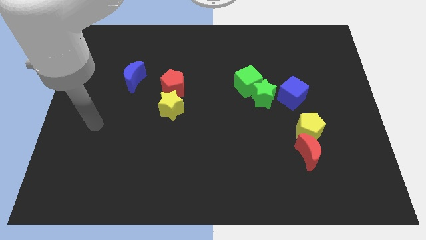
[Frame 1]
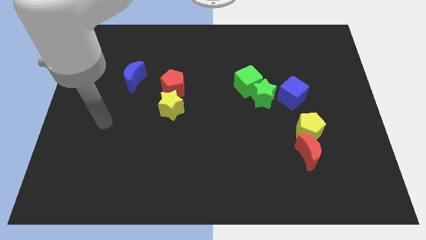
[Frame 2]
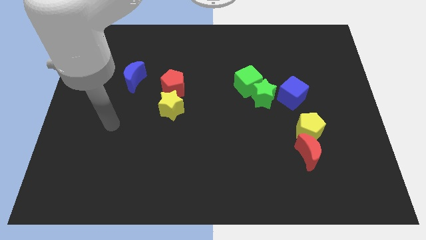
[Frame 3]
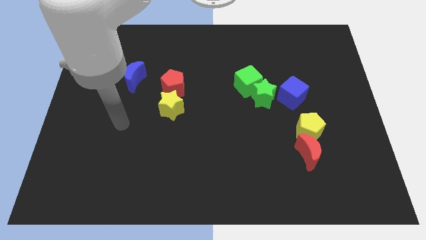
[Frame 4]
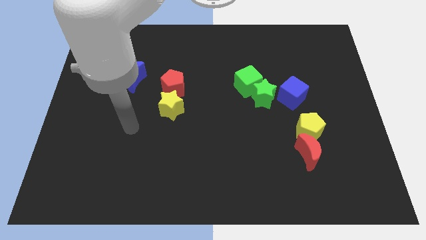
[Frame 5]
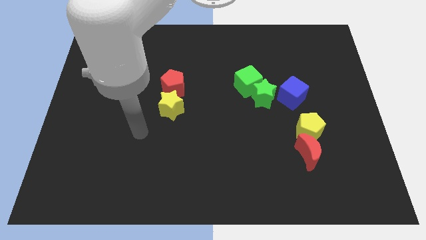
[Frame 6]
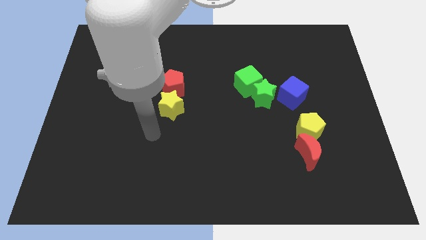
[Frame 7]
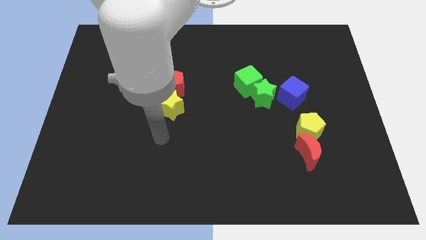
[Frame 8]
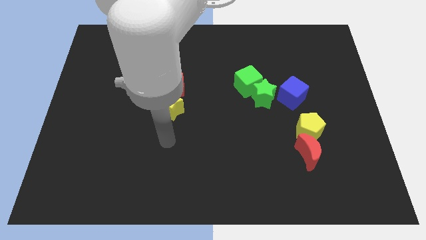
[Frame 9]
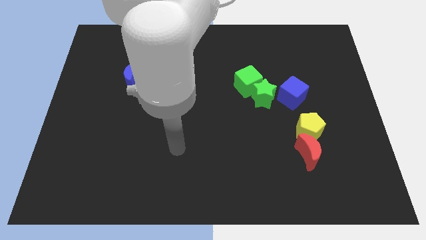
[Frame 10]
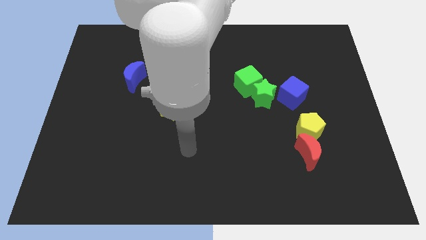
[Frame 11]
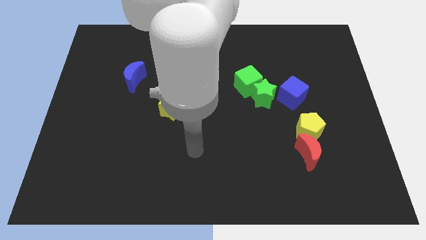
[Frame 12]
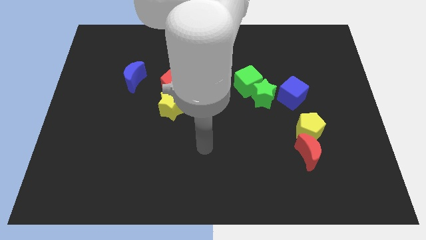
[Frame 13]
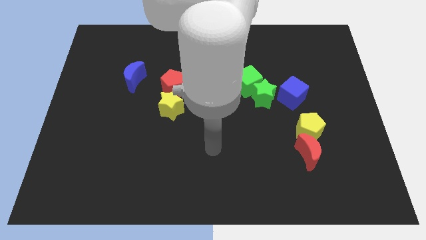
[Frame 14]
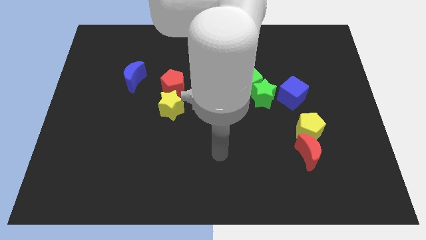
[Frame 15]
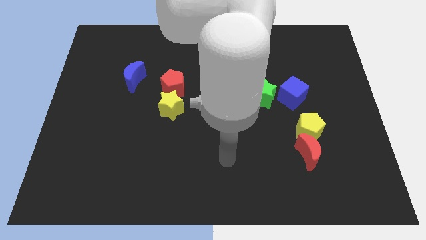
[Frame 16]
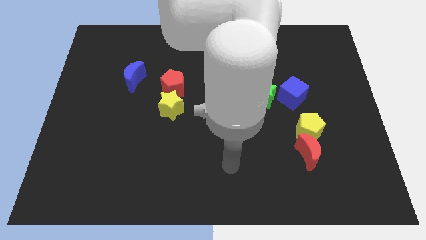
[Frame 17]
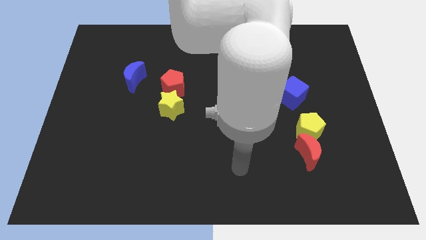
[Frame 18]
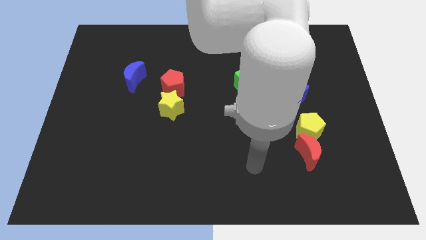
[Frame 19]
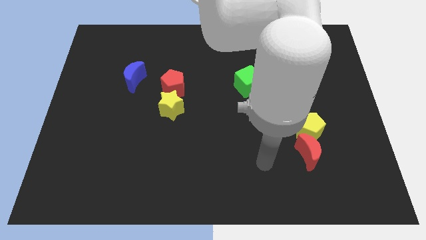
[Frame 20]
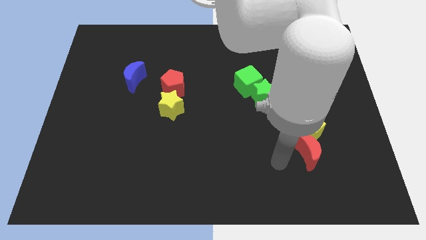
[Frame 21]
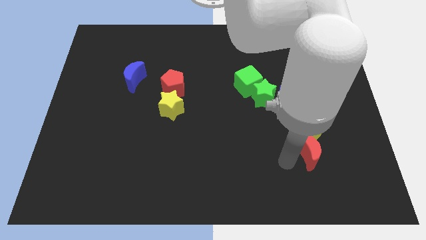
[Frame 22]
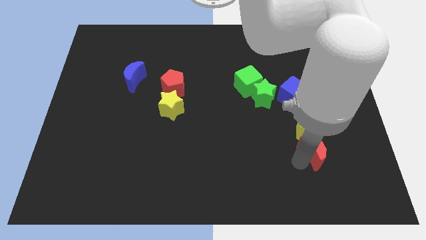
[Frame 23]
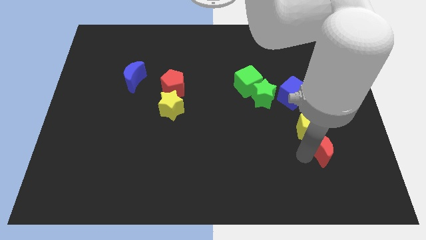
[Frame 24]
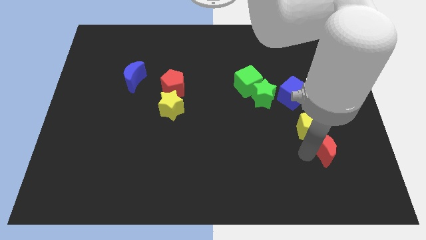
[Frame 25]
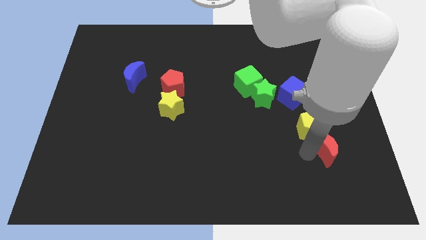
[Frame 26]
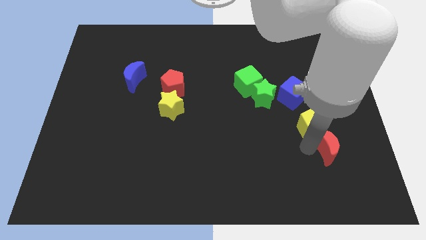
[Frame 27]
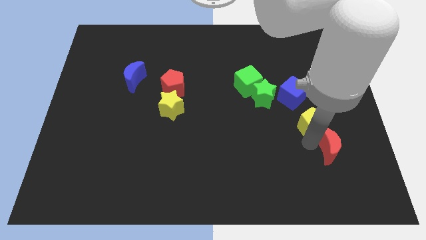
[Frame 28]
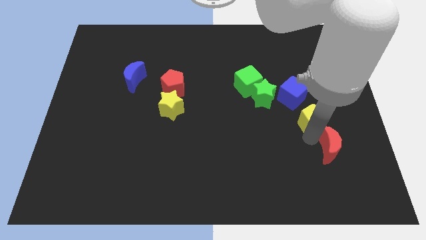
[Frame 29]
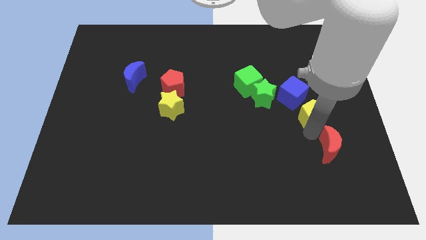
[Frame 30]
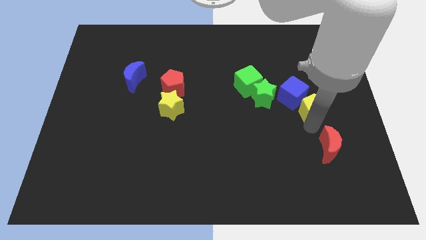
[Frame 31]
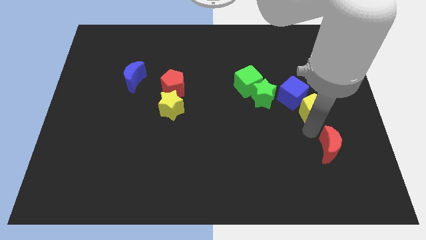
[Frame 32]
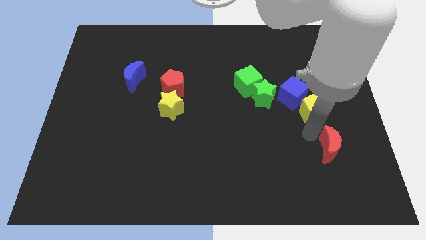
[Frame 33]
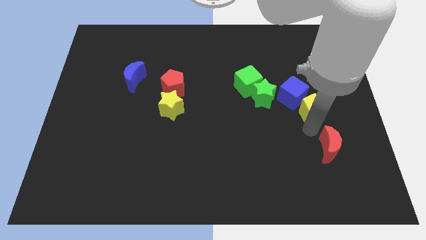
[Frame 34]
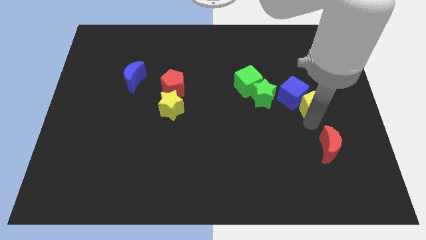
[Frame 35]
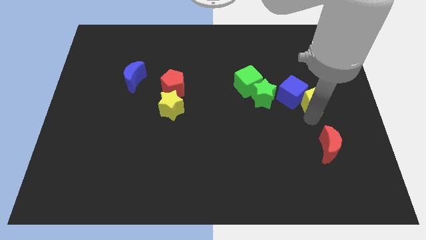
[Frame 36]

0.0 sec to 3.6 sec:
push the yellow pentagon slightly up

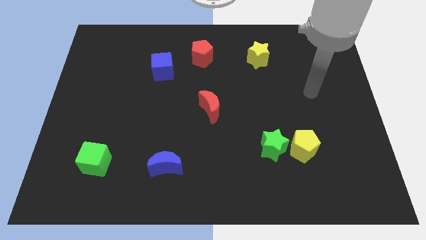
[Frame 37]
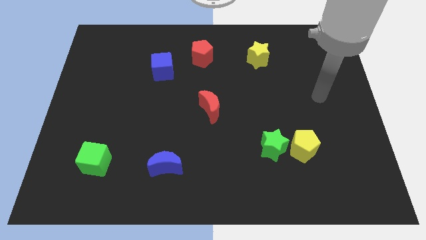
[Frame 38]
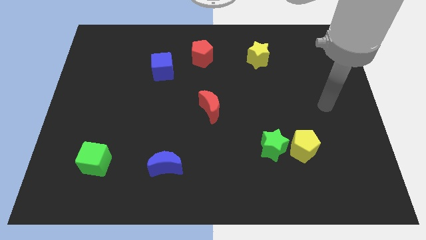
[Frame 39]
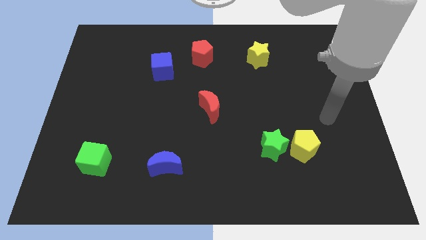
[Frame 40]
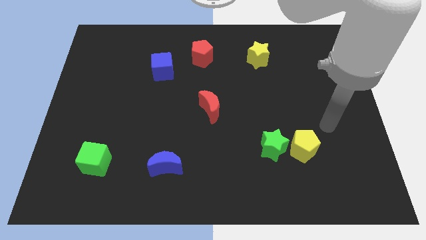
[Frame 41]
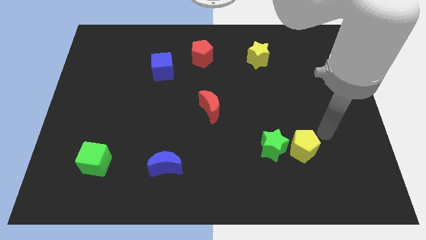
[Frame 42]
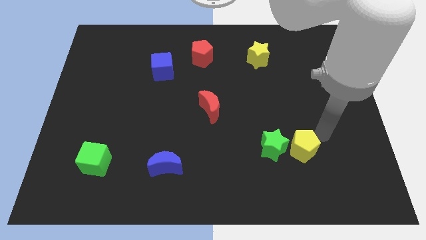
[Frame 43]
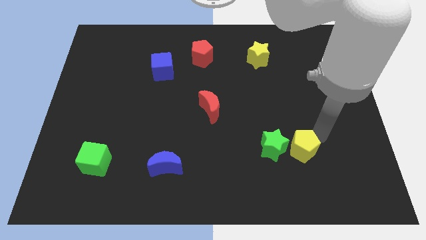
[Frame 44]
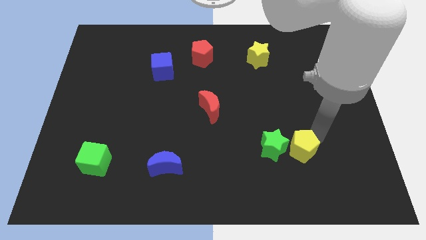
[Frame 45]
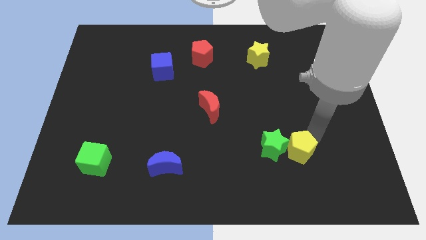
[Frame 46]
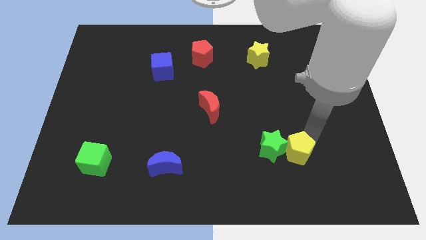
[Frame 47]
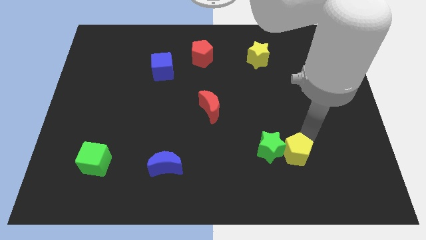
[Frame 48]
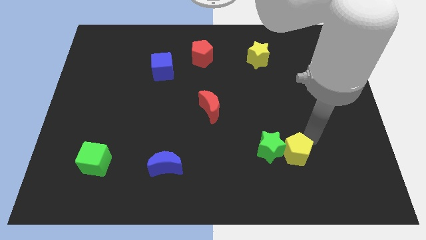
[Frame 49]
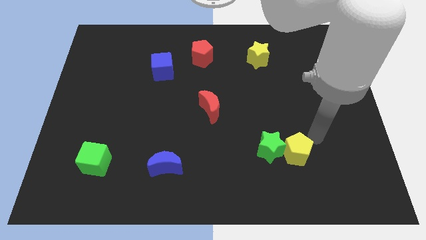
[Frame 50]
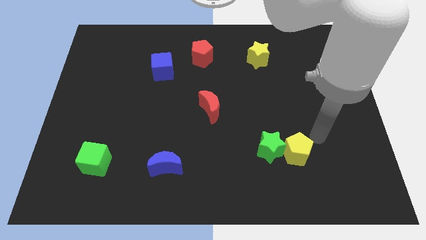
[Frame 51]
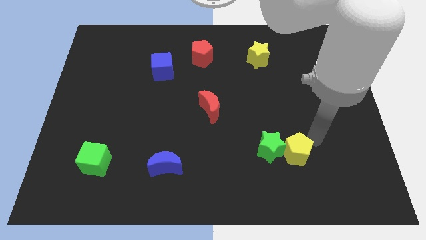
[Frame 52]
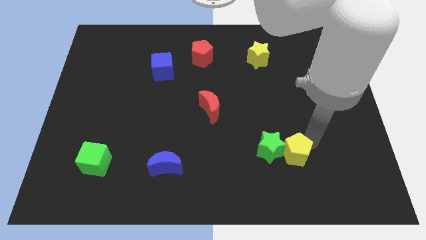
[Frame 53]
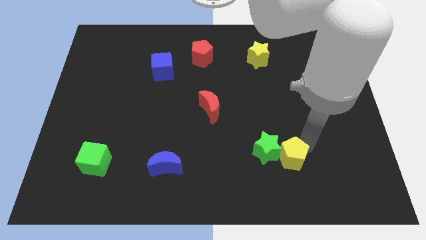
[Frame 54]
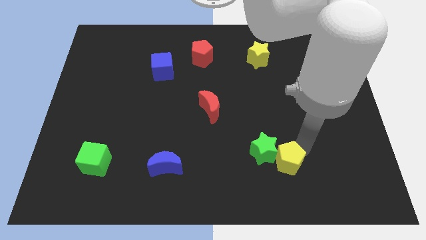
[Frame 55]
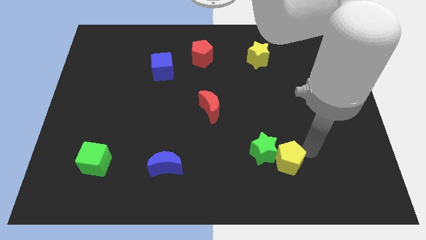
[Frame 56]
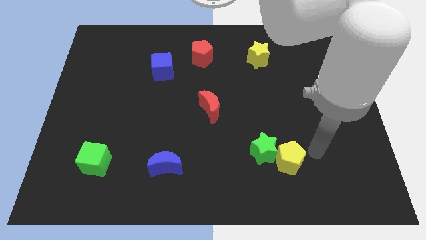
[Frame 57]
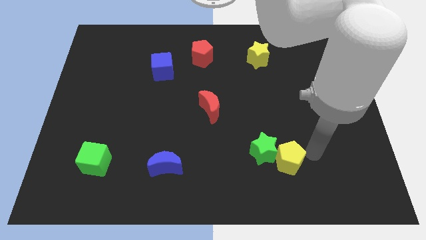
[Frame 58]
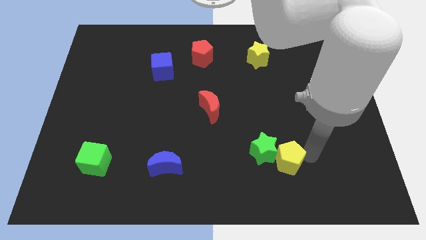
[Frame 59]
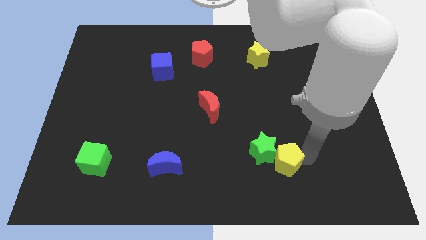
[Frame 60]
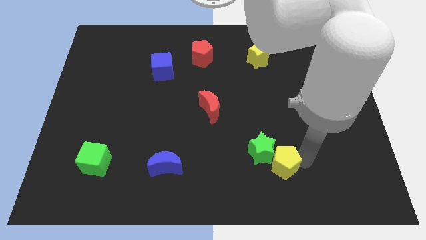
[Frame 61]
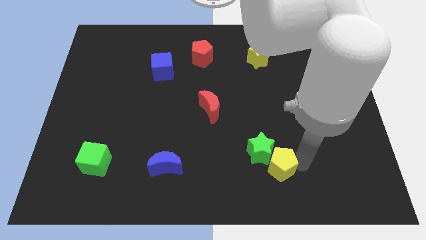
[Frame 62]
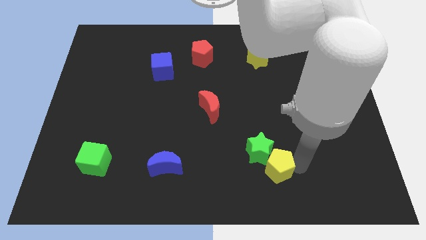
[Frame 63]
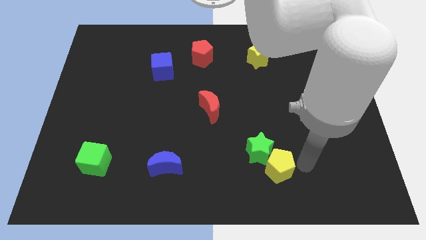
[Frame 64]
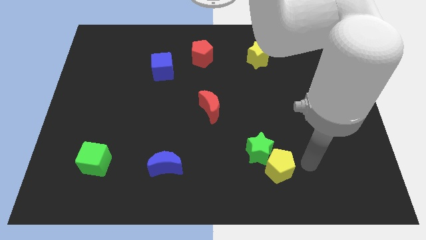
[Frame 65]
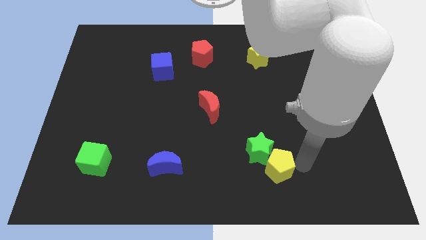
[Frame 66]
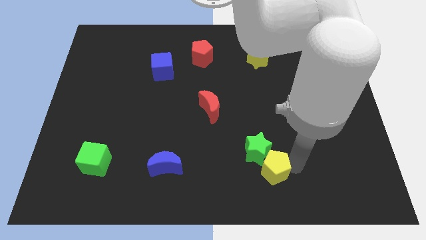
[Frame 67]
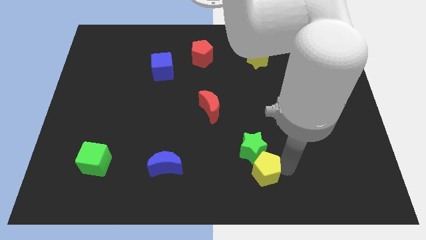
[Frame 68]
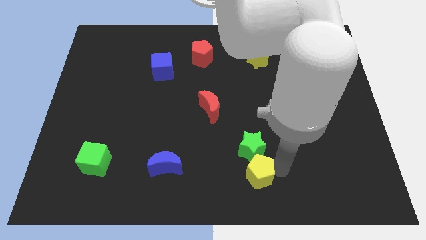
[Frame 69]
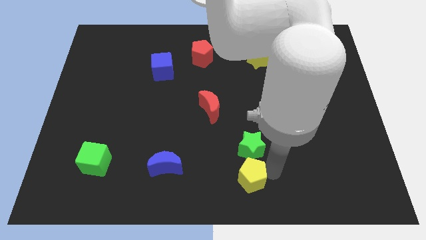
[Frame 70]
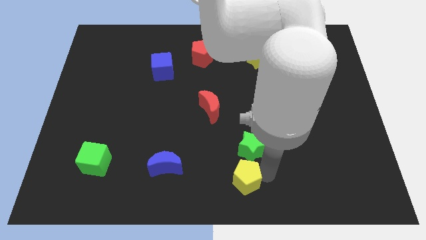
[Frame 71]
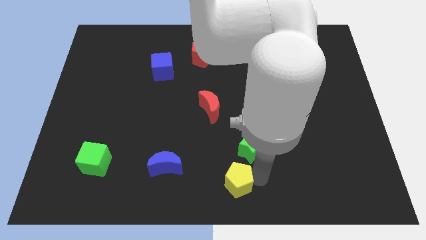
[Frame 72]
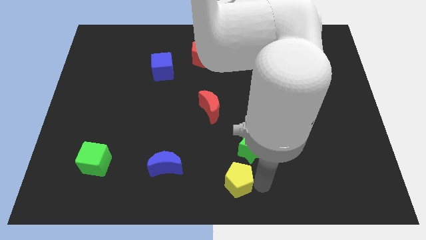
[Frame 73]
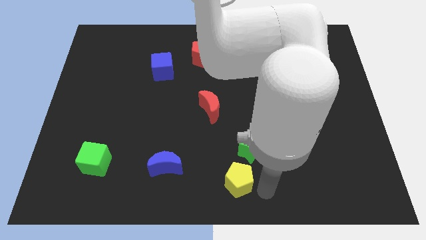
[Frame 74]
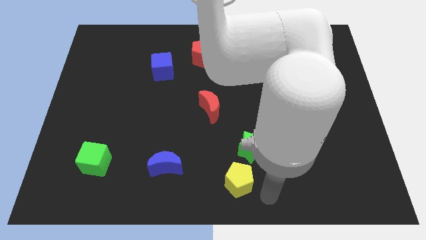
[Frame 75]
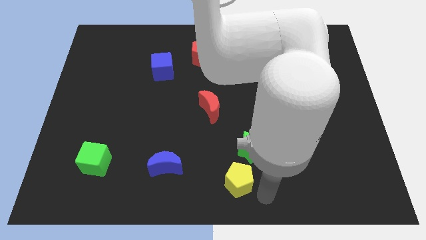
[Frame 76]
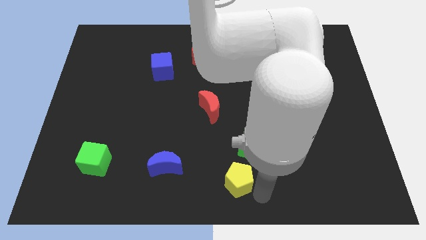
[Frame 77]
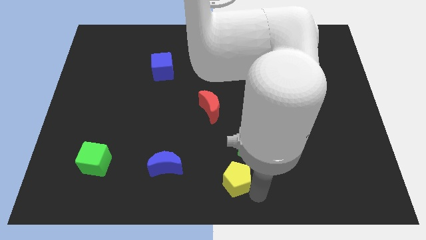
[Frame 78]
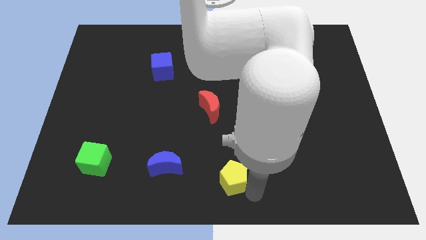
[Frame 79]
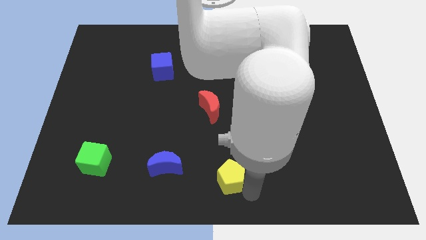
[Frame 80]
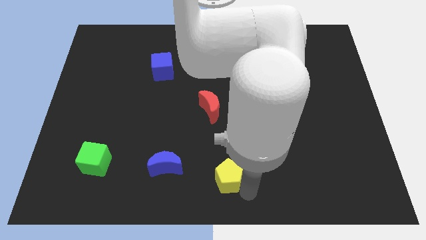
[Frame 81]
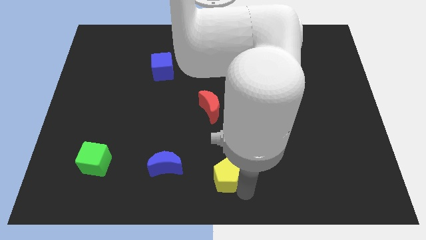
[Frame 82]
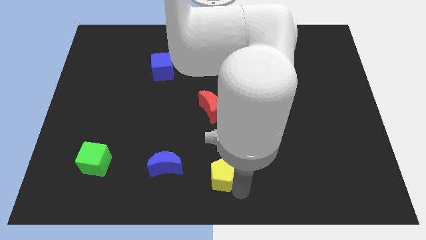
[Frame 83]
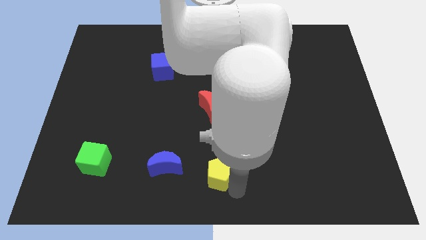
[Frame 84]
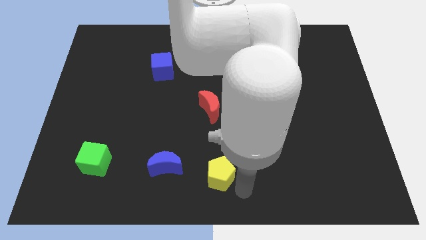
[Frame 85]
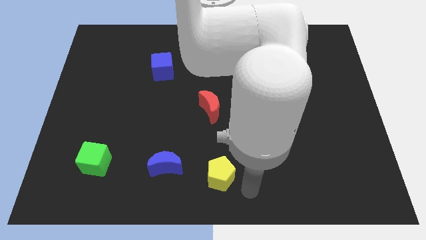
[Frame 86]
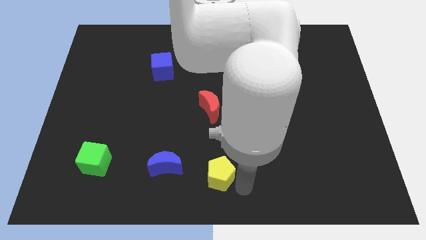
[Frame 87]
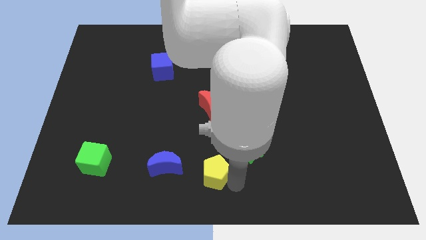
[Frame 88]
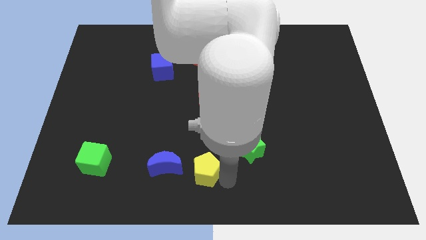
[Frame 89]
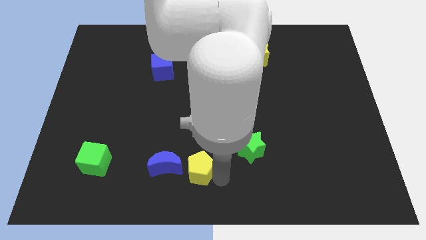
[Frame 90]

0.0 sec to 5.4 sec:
move the yellow pentagon left
